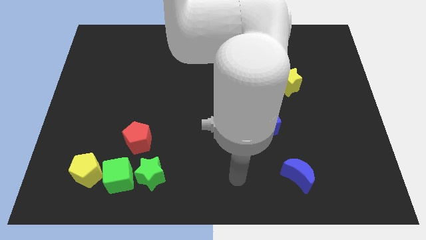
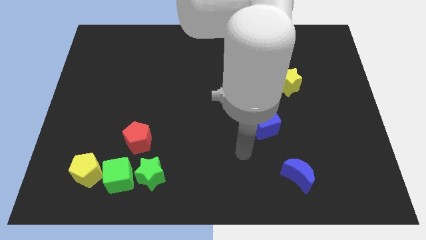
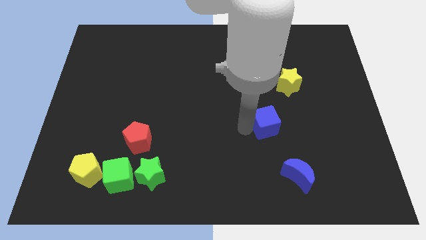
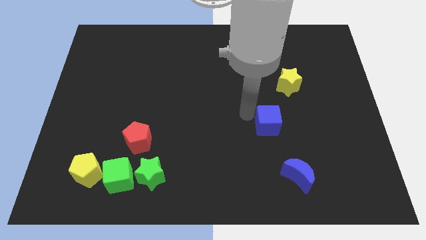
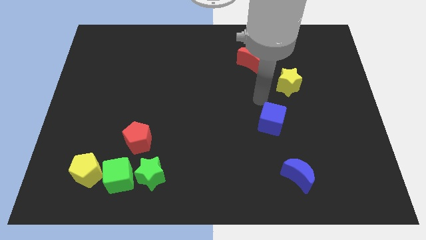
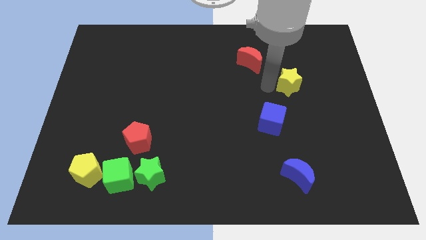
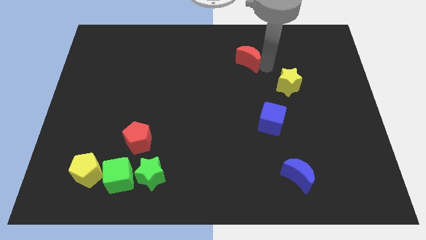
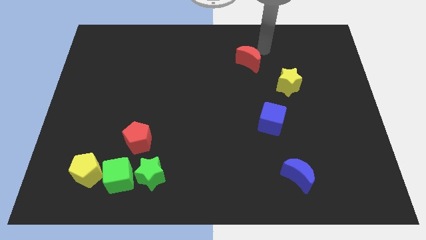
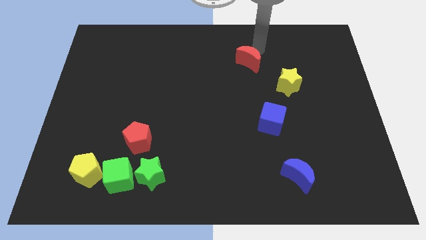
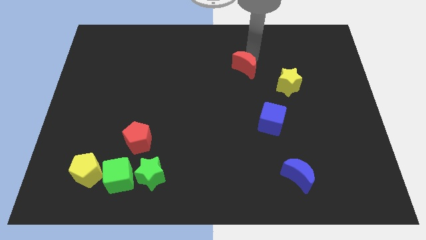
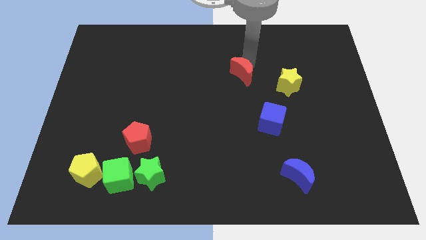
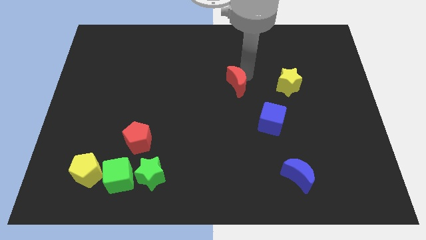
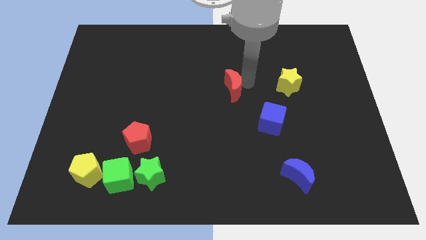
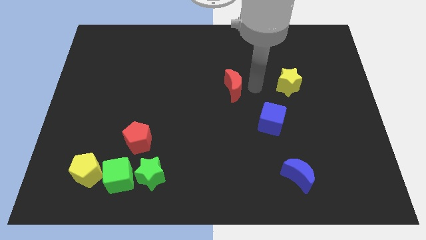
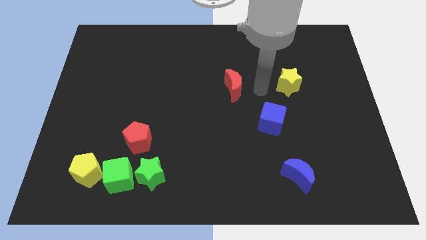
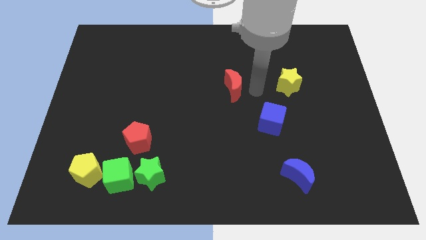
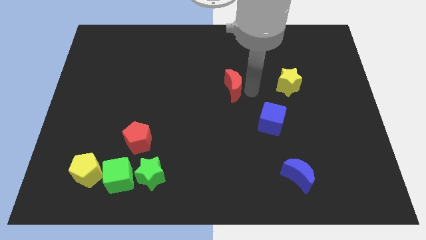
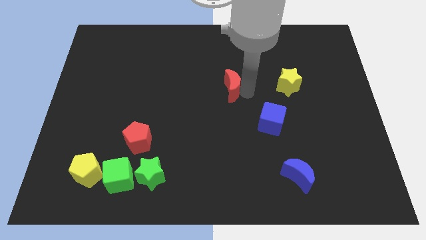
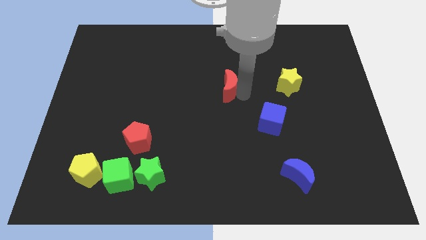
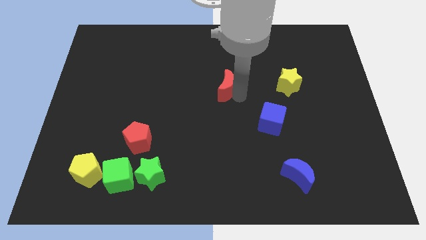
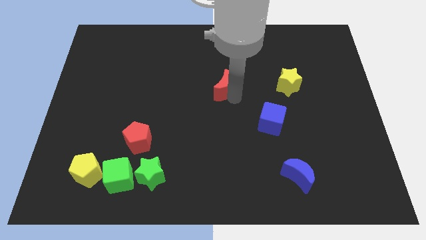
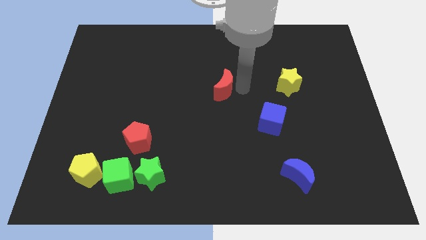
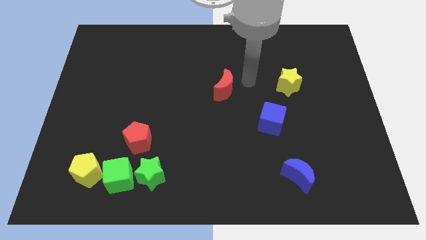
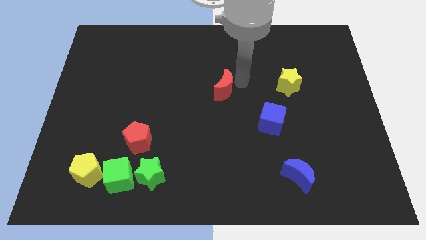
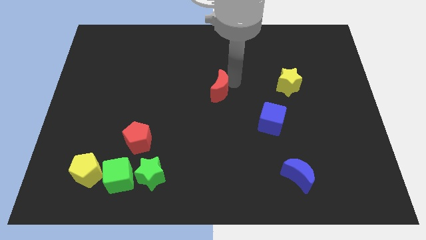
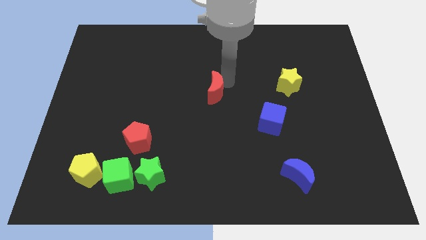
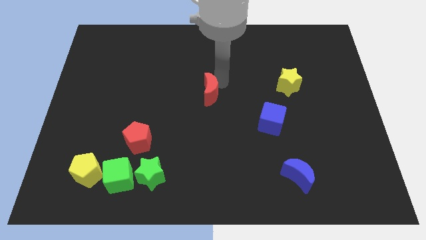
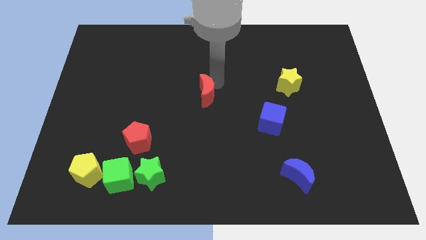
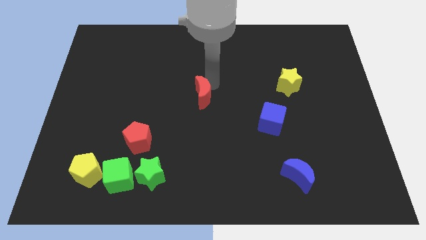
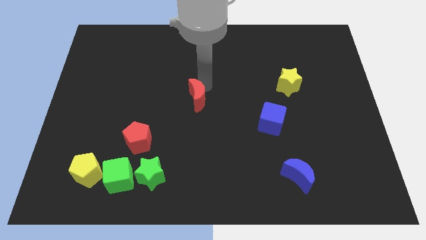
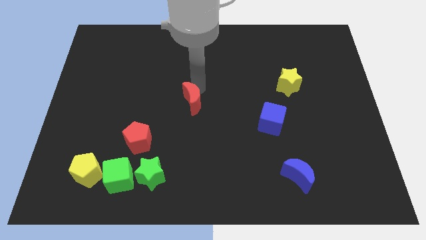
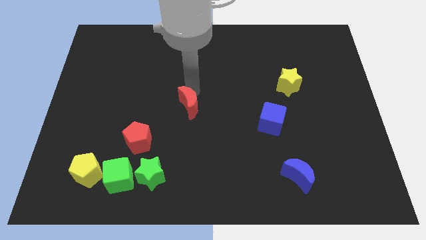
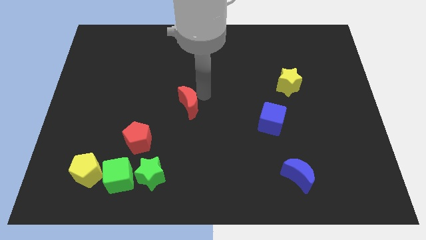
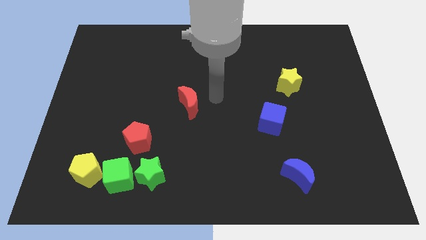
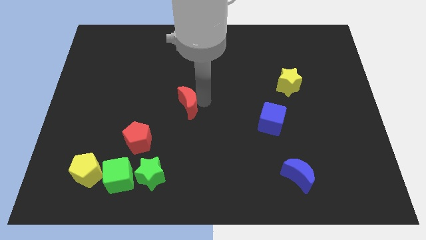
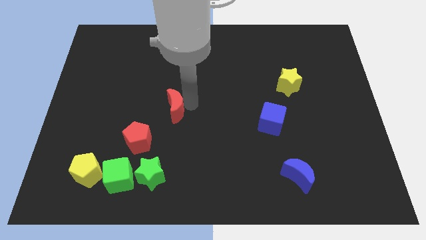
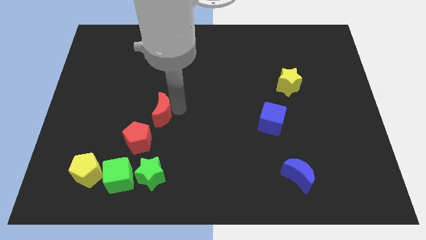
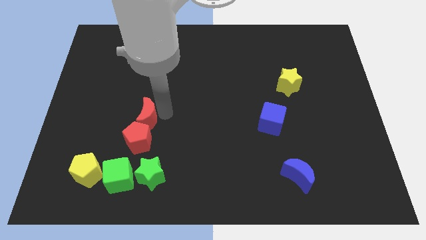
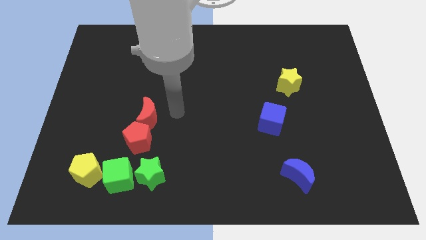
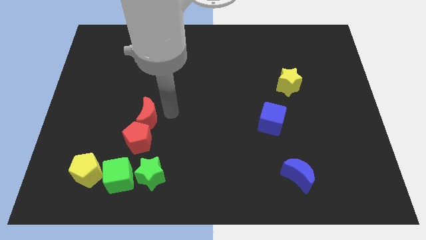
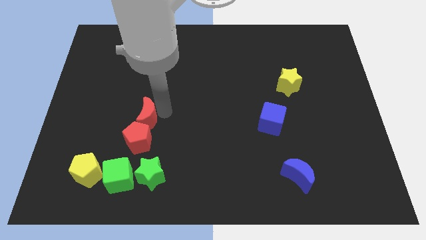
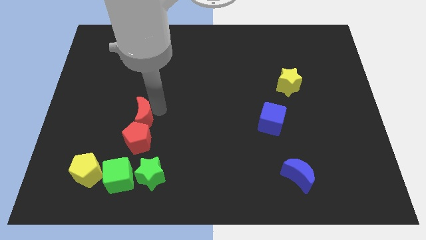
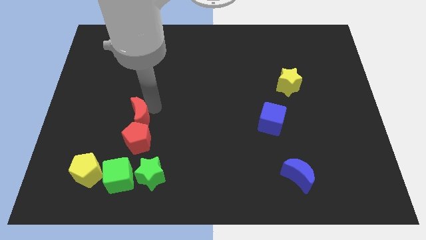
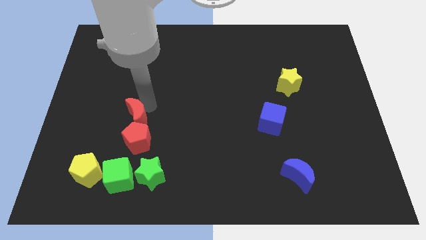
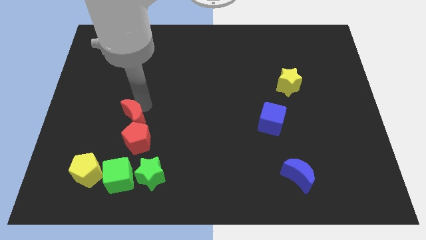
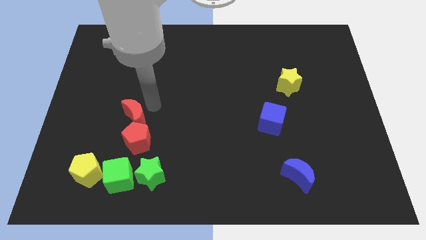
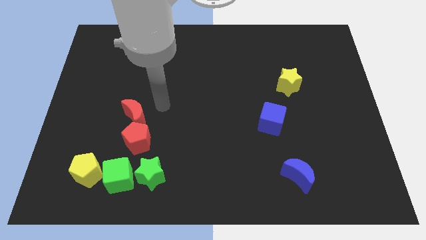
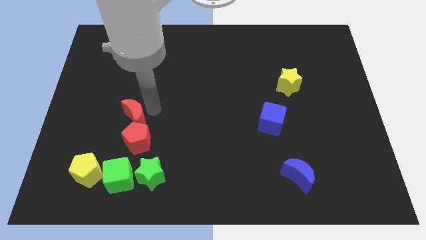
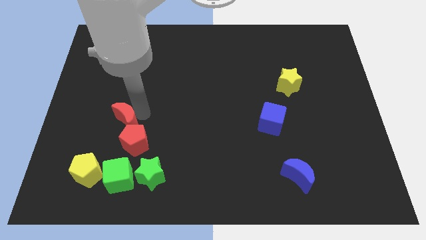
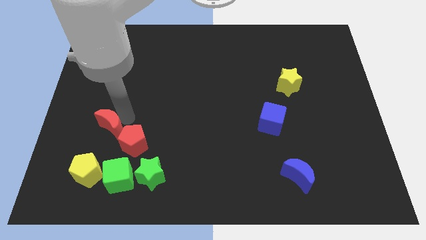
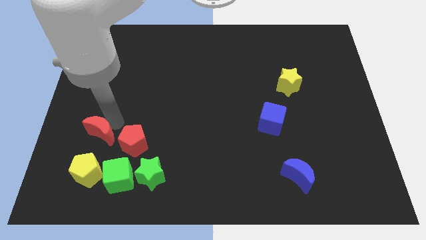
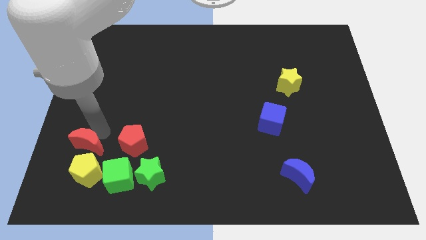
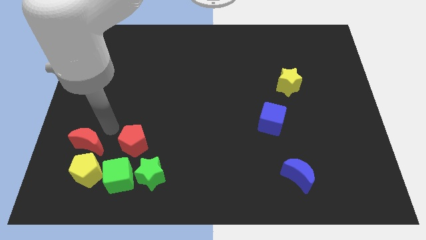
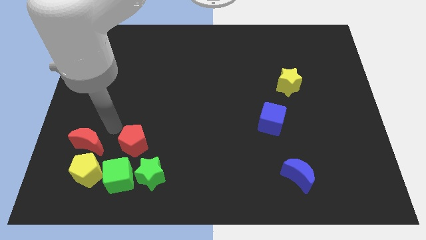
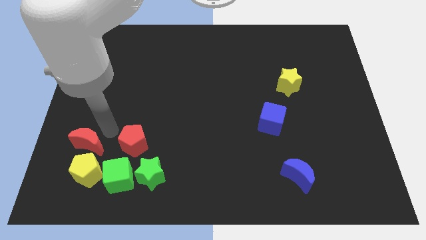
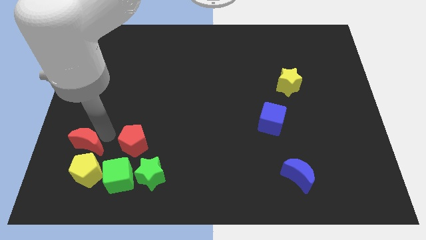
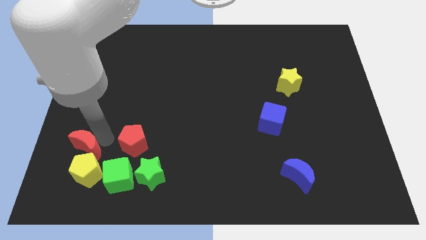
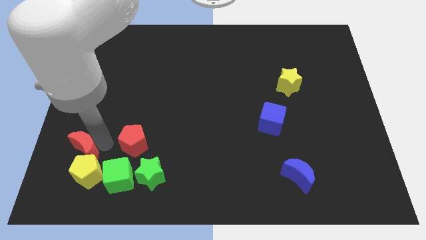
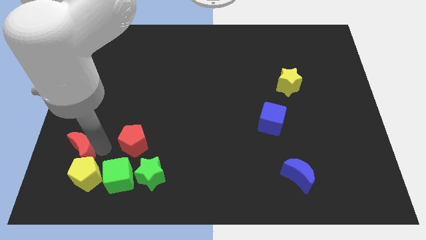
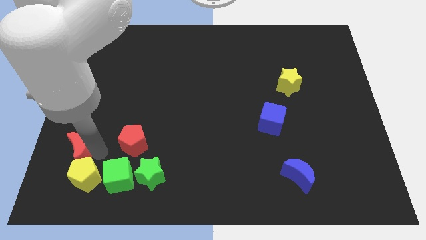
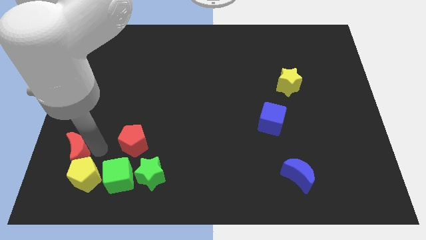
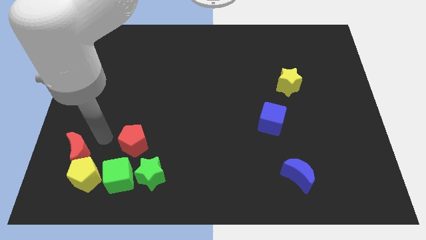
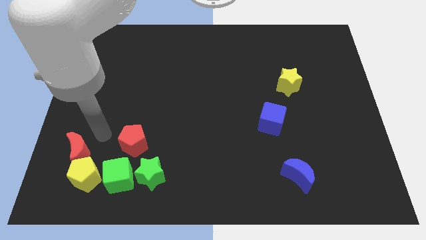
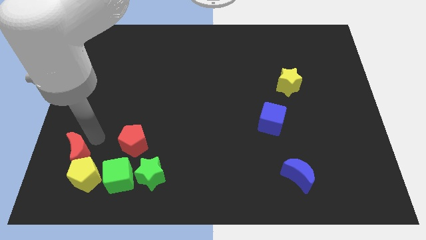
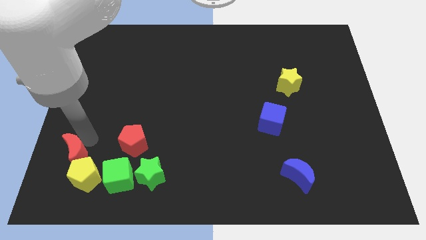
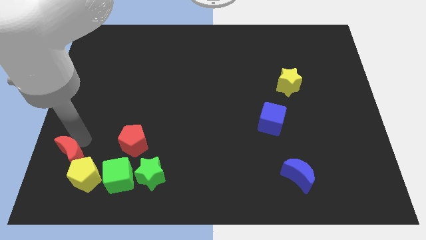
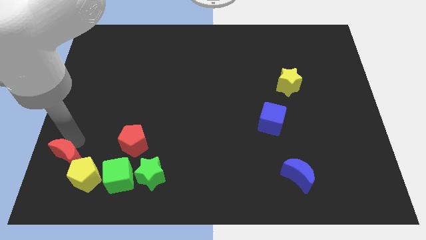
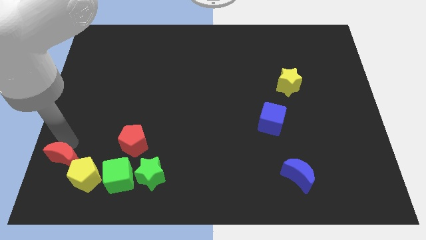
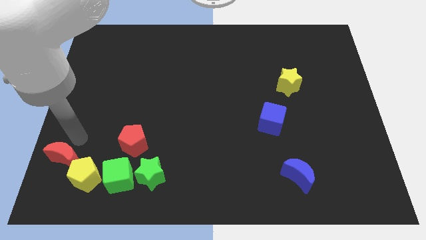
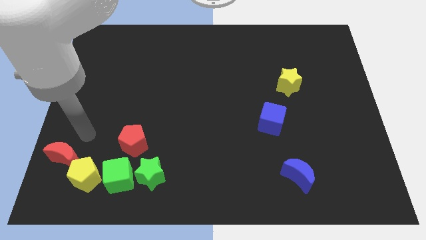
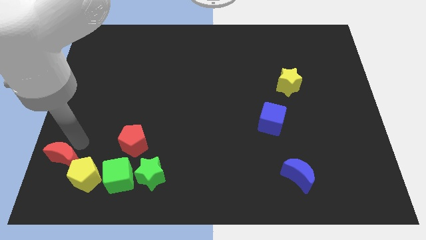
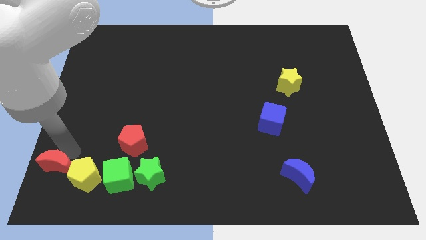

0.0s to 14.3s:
move the red moon to the bottom left of the board
